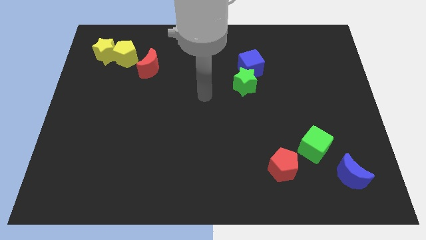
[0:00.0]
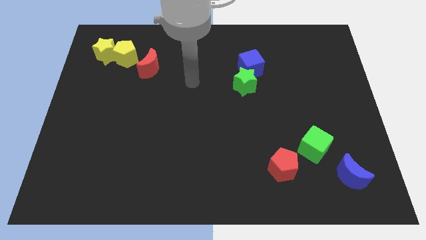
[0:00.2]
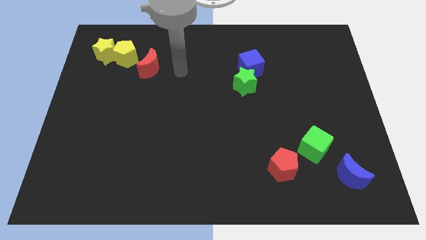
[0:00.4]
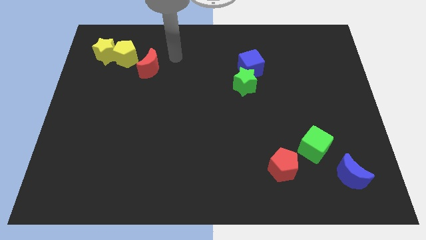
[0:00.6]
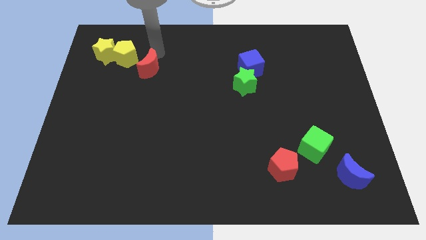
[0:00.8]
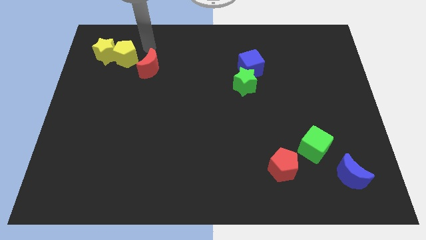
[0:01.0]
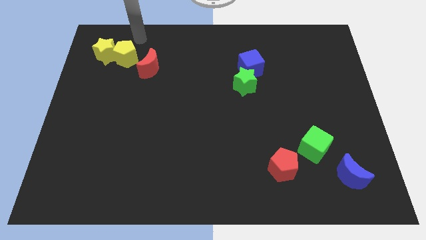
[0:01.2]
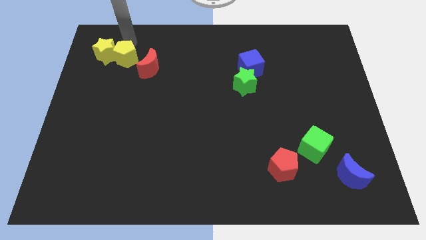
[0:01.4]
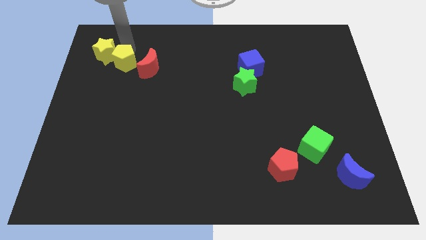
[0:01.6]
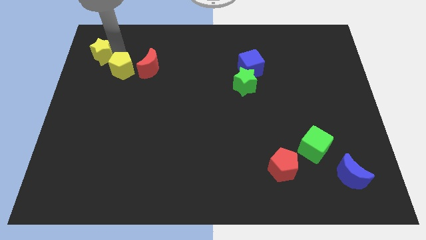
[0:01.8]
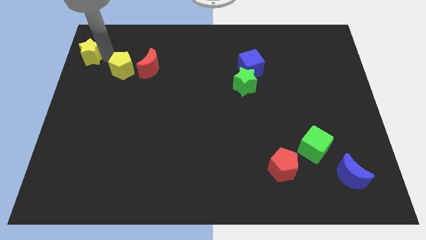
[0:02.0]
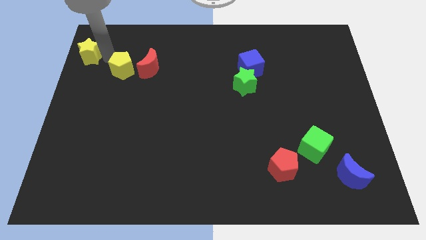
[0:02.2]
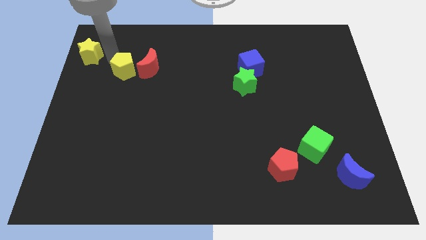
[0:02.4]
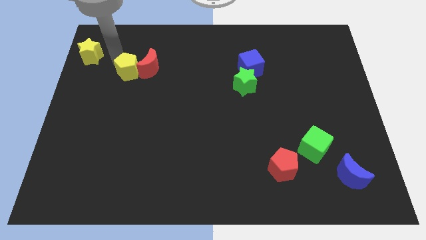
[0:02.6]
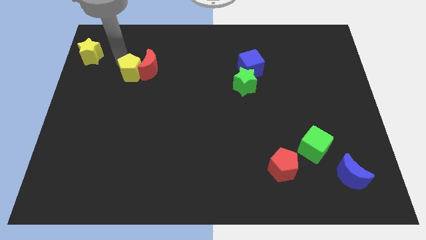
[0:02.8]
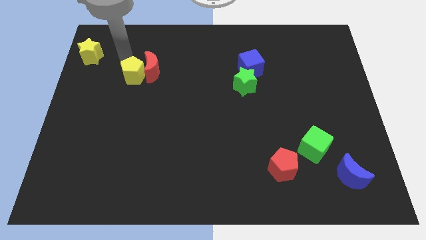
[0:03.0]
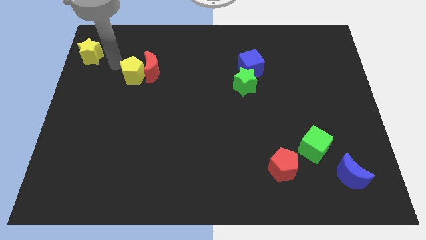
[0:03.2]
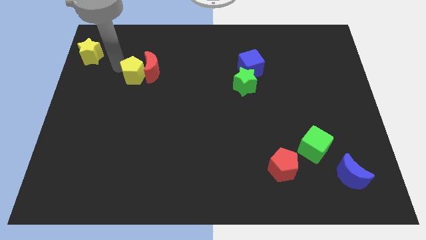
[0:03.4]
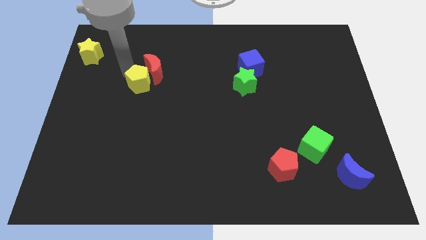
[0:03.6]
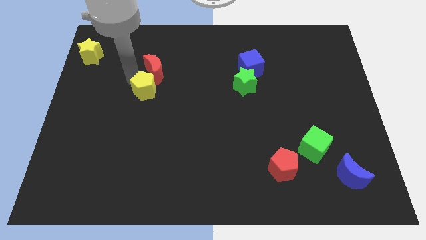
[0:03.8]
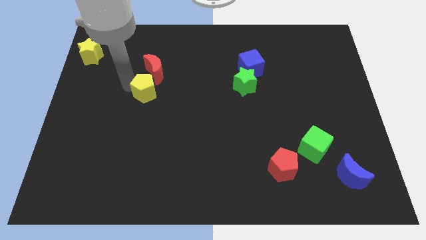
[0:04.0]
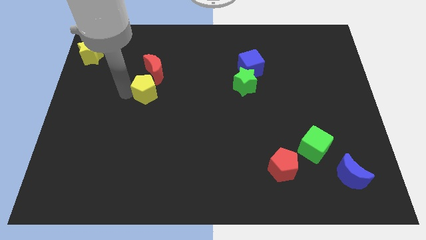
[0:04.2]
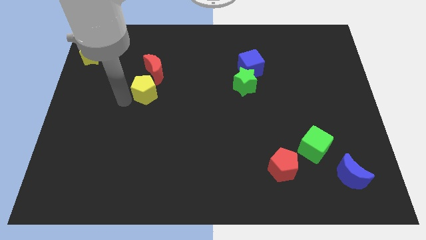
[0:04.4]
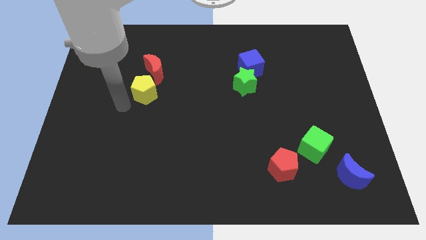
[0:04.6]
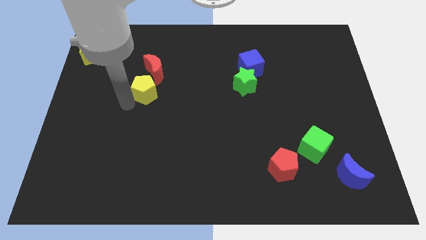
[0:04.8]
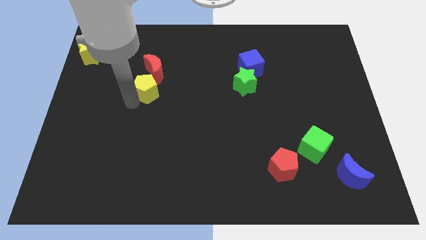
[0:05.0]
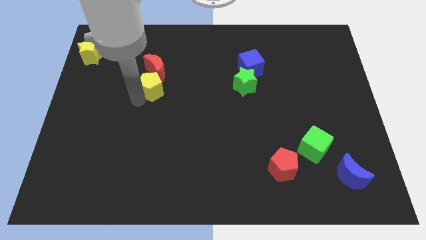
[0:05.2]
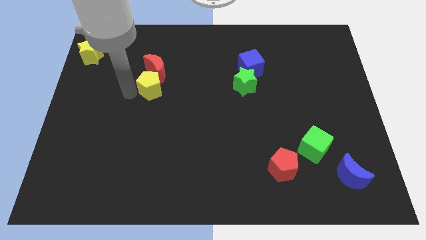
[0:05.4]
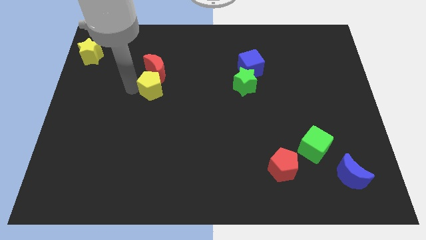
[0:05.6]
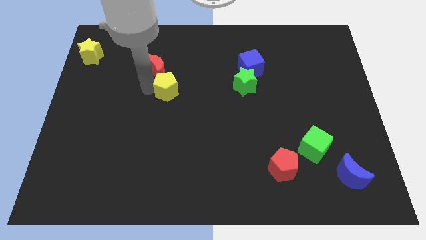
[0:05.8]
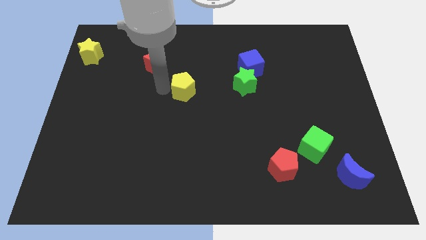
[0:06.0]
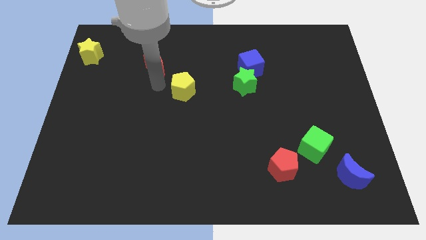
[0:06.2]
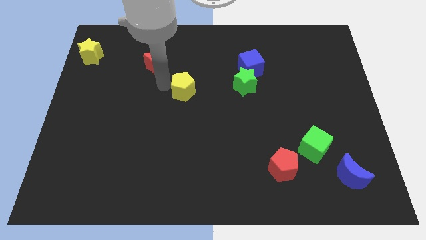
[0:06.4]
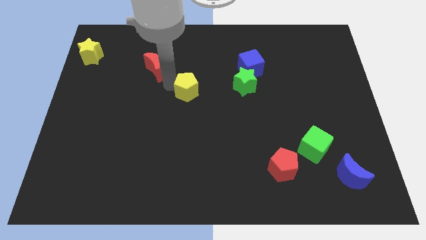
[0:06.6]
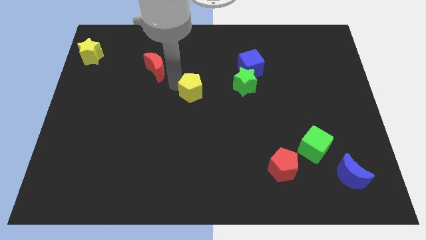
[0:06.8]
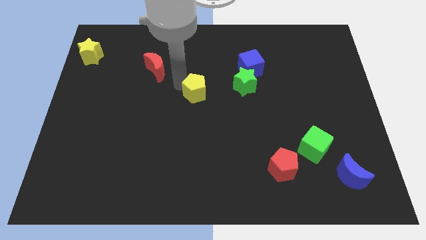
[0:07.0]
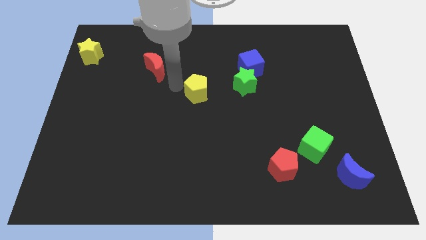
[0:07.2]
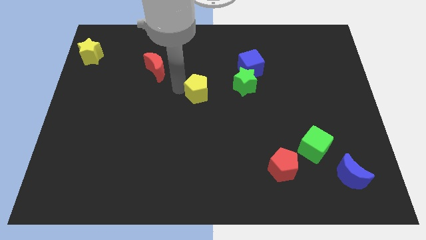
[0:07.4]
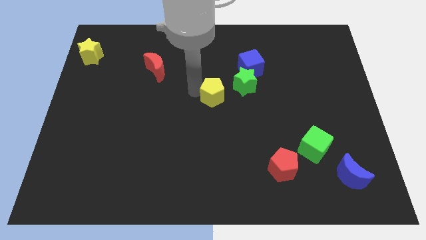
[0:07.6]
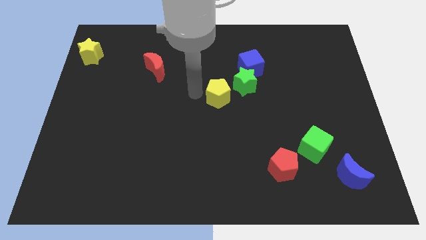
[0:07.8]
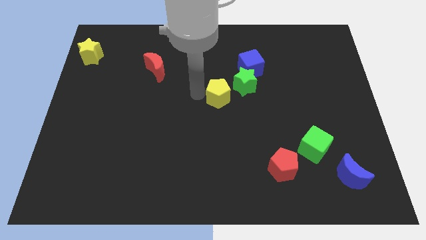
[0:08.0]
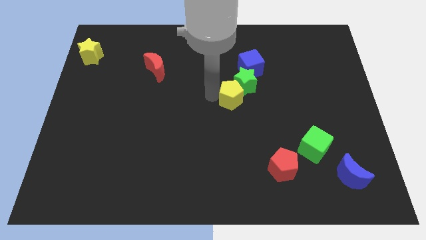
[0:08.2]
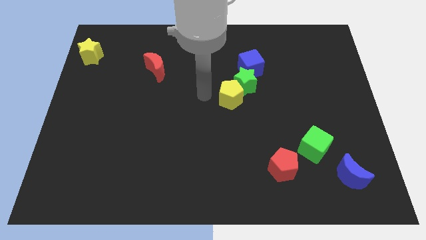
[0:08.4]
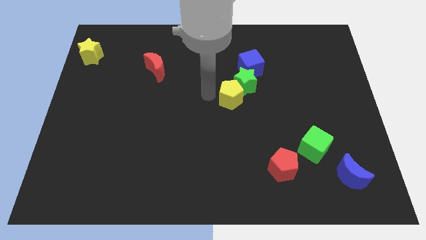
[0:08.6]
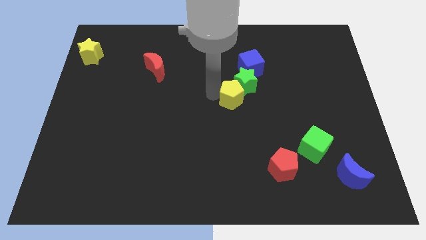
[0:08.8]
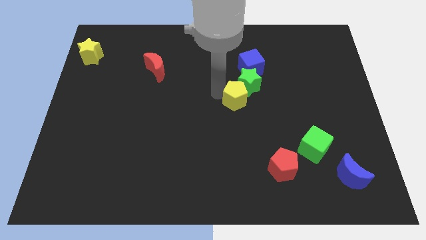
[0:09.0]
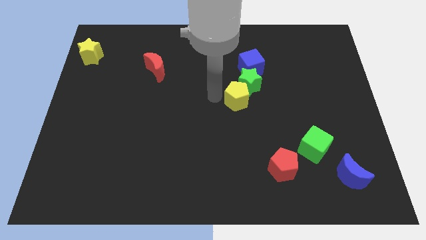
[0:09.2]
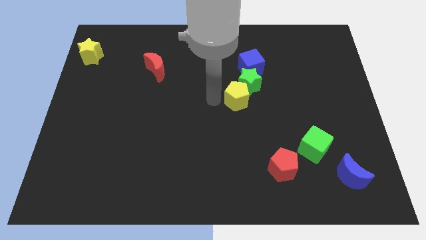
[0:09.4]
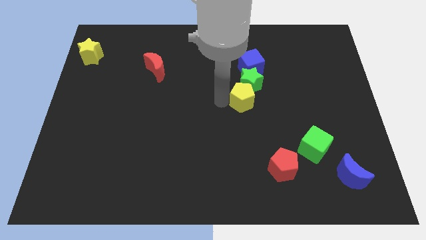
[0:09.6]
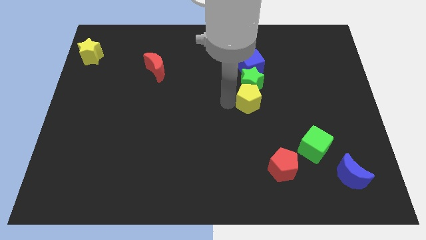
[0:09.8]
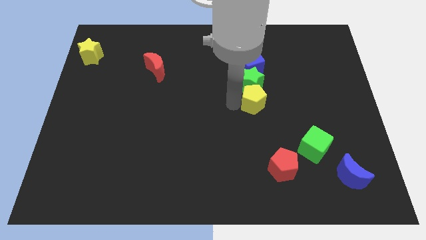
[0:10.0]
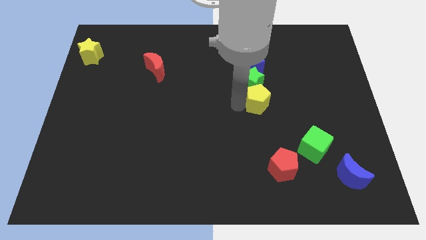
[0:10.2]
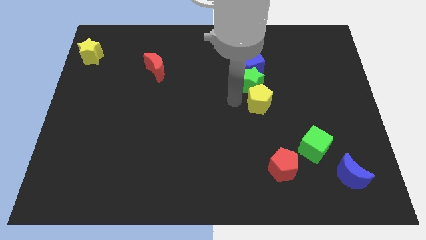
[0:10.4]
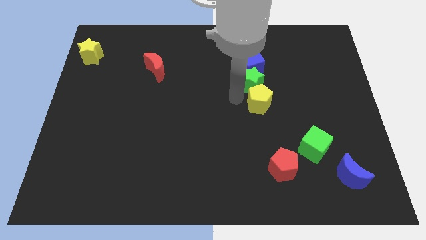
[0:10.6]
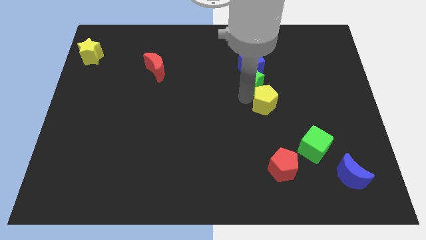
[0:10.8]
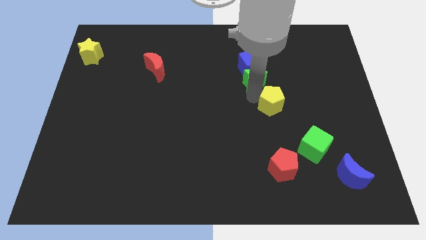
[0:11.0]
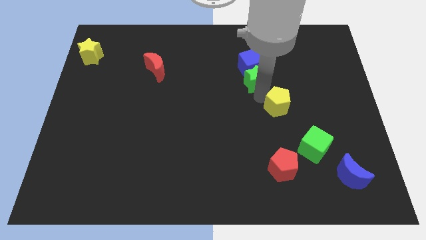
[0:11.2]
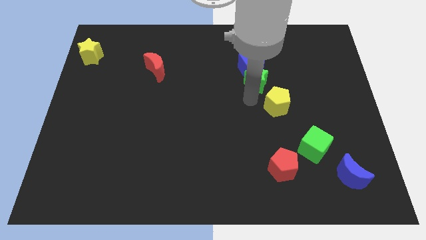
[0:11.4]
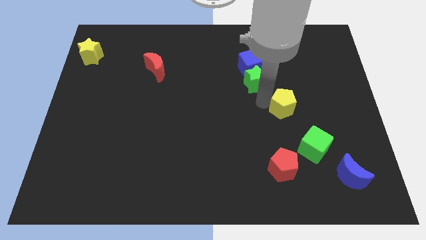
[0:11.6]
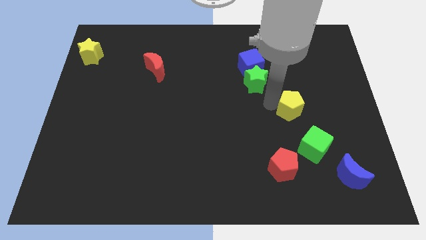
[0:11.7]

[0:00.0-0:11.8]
move the yellow pentagon to the top of the green cube

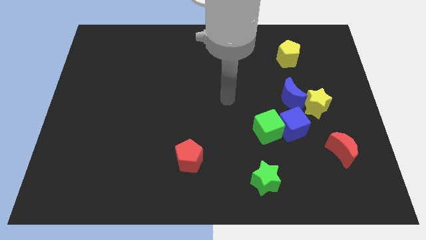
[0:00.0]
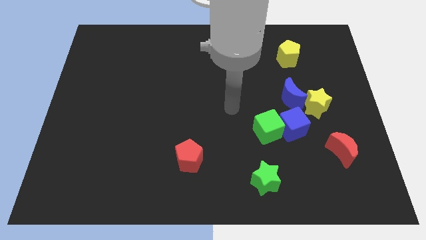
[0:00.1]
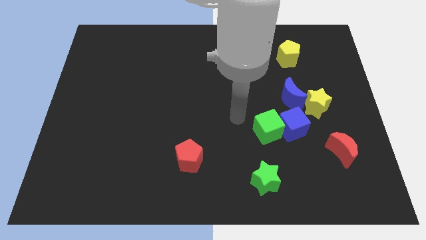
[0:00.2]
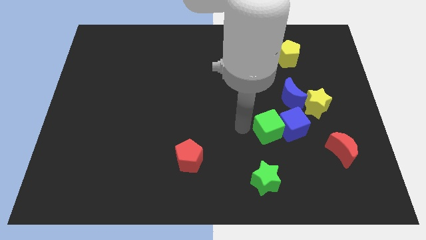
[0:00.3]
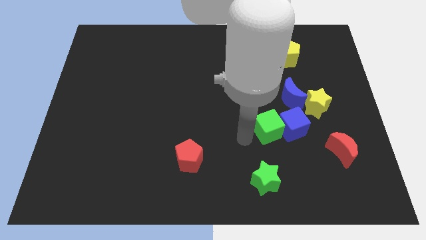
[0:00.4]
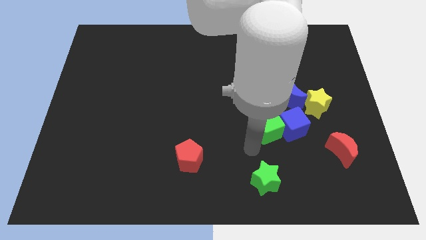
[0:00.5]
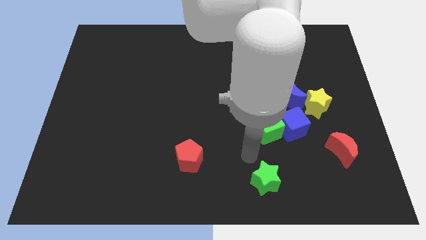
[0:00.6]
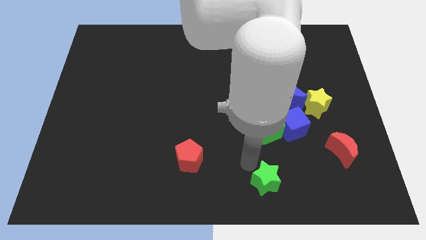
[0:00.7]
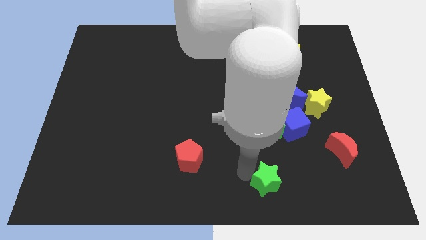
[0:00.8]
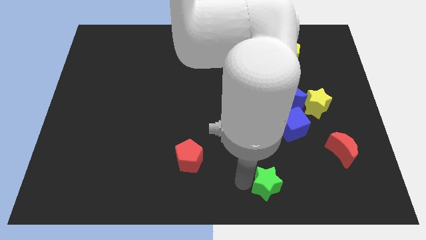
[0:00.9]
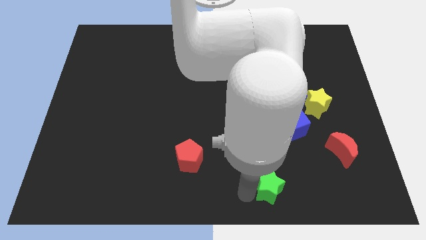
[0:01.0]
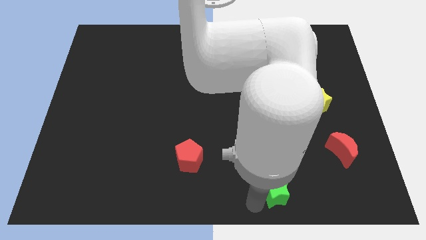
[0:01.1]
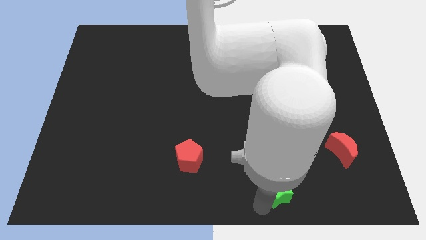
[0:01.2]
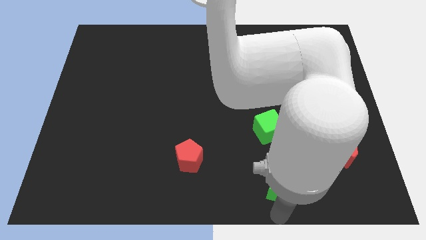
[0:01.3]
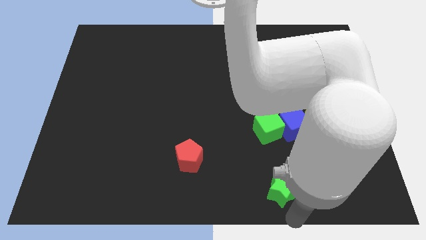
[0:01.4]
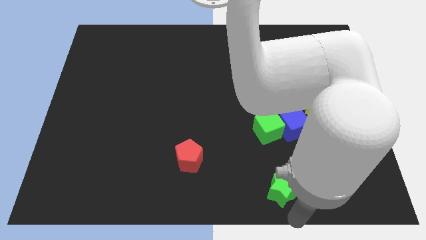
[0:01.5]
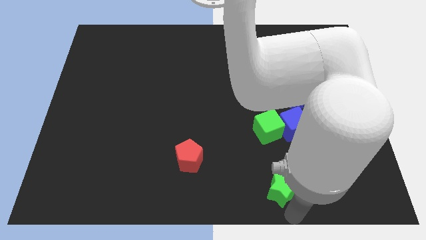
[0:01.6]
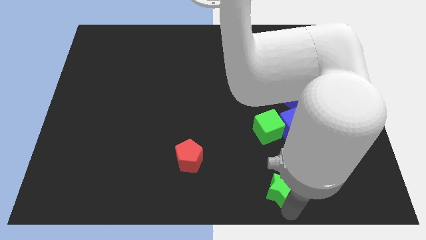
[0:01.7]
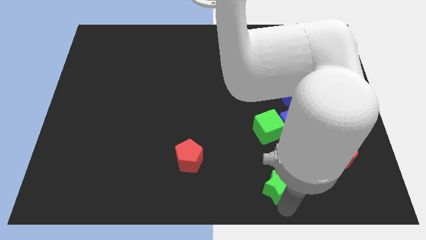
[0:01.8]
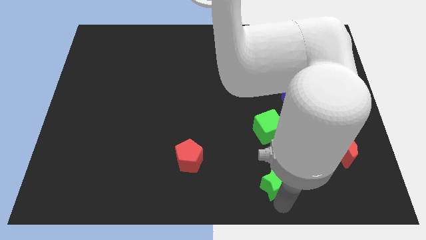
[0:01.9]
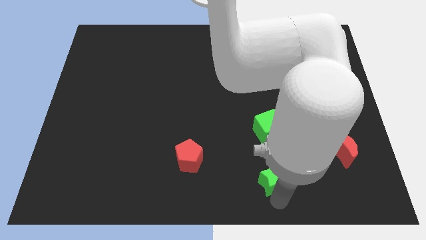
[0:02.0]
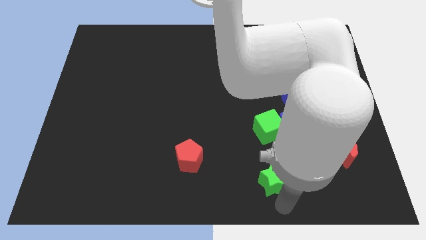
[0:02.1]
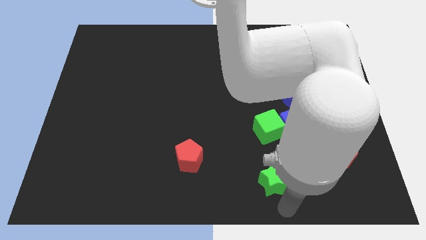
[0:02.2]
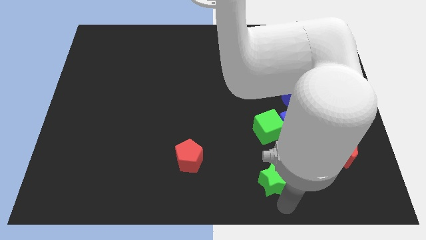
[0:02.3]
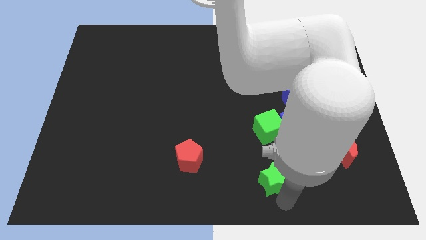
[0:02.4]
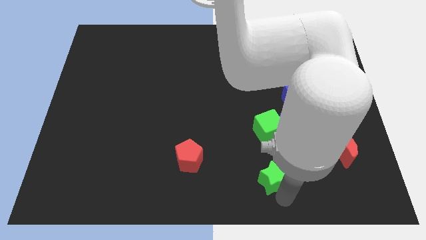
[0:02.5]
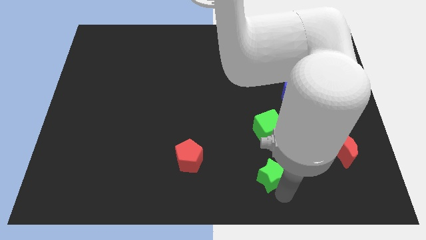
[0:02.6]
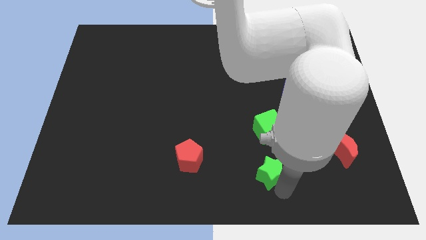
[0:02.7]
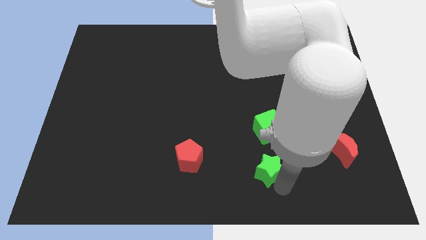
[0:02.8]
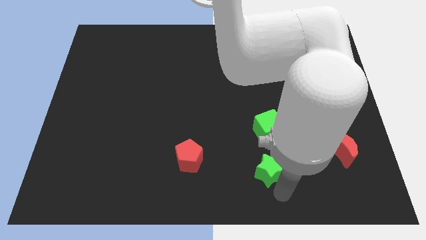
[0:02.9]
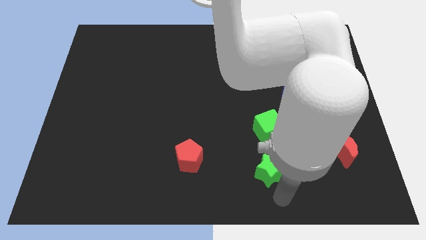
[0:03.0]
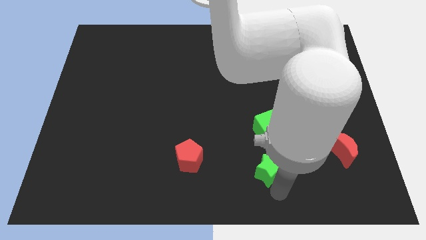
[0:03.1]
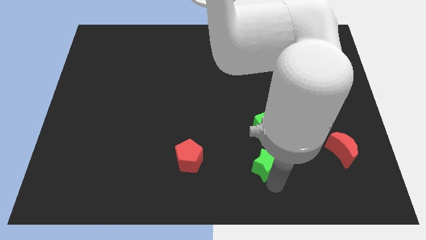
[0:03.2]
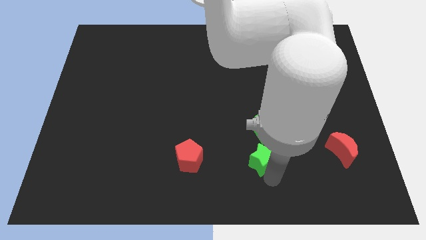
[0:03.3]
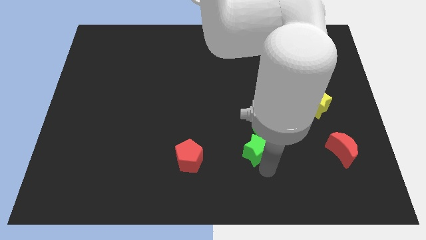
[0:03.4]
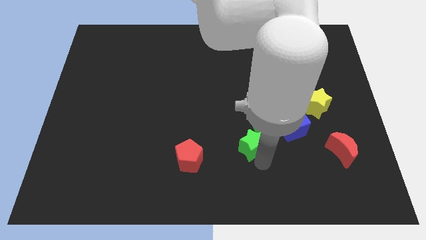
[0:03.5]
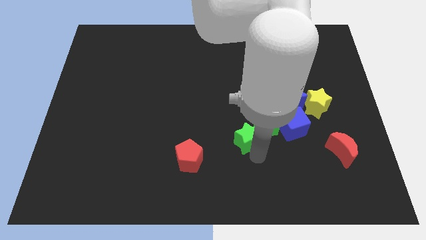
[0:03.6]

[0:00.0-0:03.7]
push the green star to the left side of the blue cube
